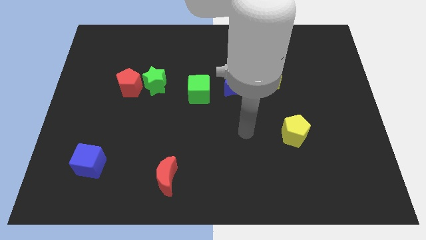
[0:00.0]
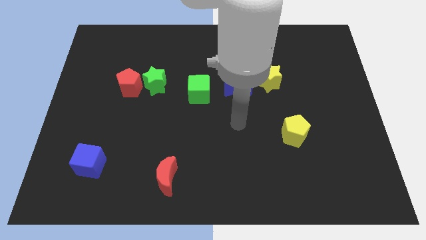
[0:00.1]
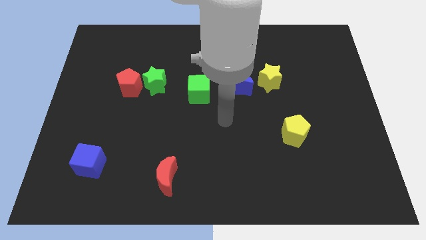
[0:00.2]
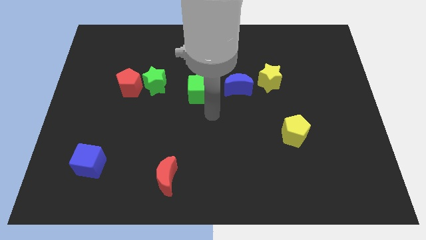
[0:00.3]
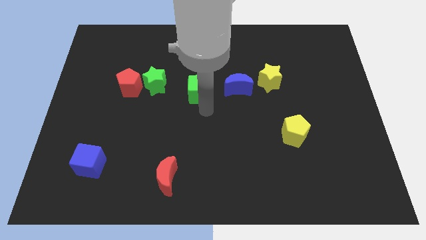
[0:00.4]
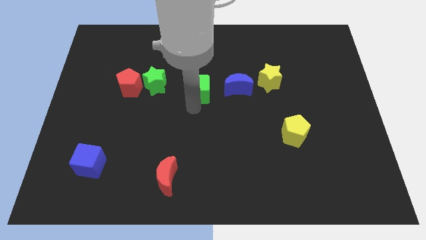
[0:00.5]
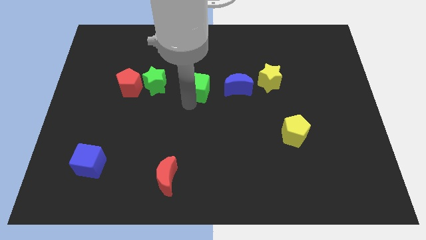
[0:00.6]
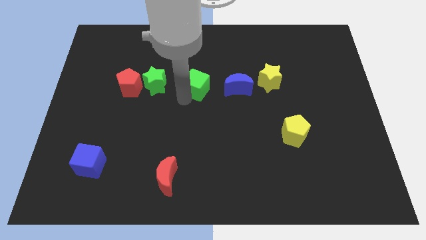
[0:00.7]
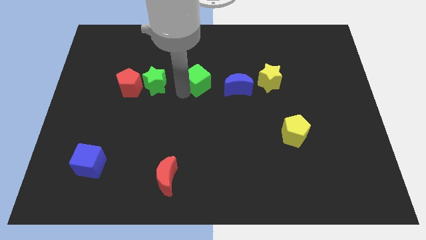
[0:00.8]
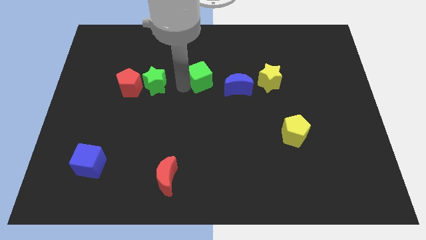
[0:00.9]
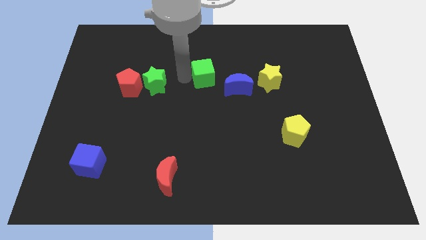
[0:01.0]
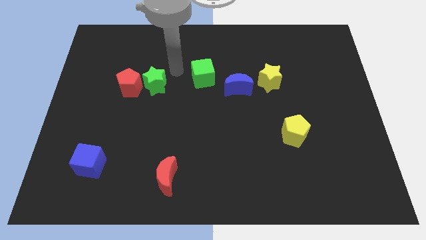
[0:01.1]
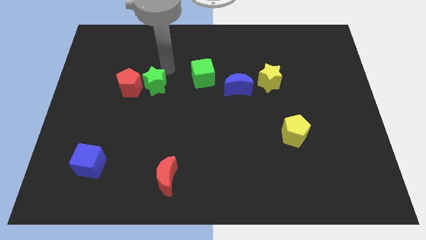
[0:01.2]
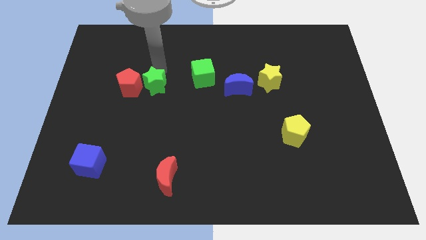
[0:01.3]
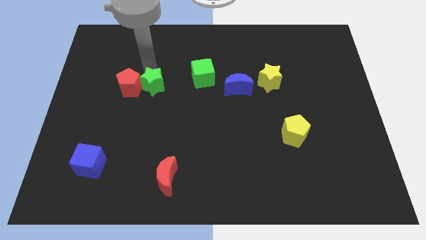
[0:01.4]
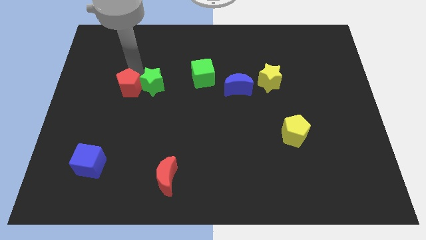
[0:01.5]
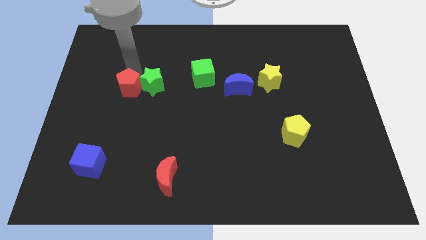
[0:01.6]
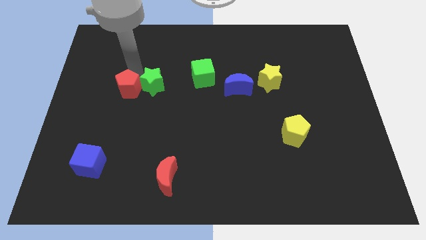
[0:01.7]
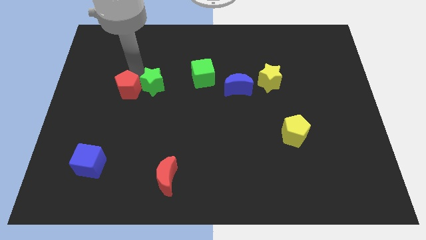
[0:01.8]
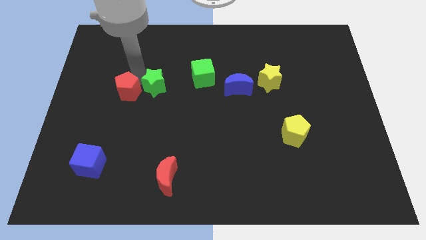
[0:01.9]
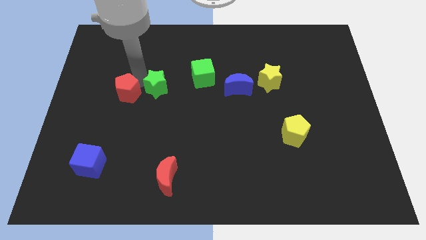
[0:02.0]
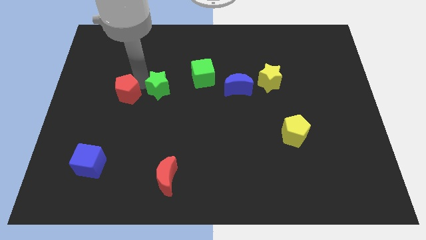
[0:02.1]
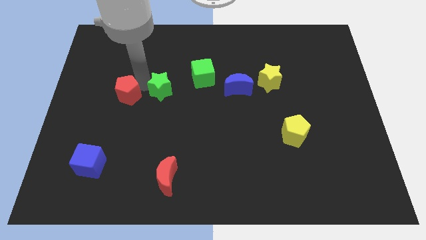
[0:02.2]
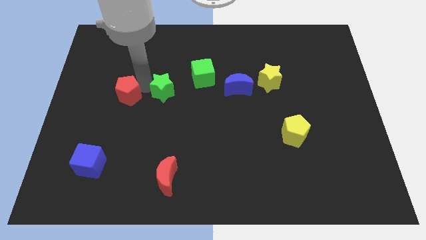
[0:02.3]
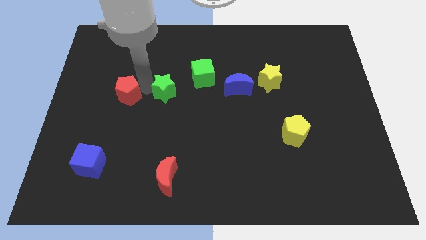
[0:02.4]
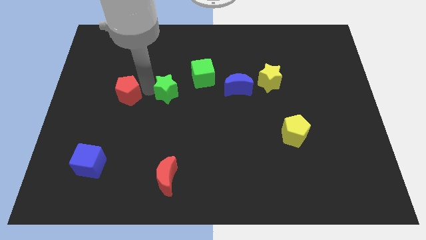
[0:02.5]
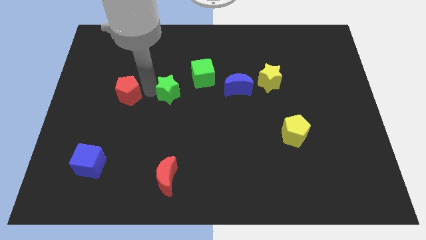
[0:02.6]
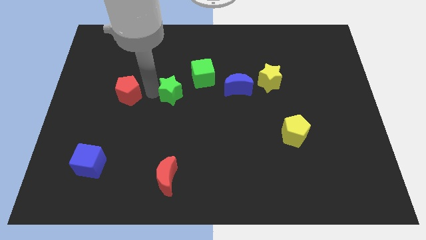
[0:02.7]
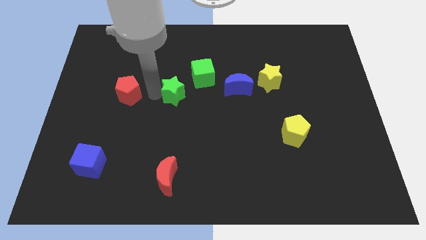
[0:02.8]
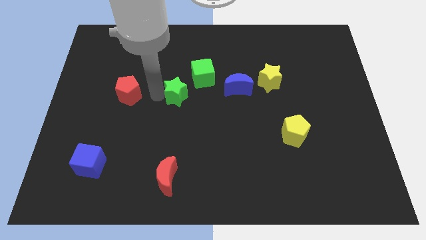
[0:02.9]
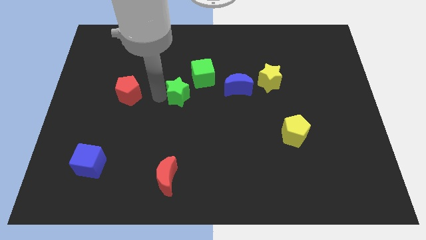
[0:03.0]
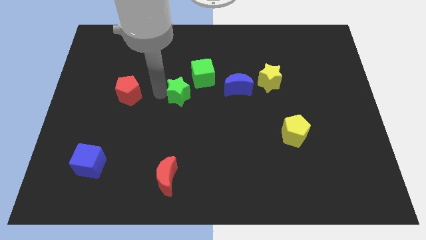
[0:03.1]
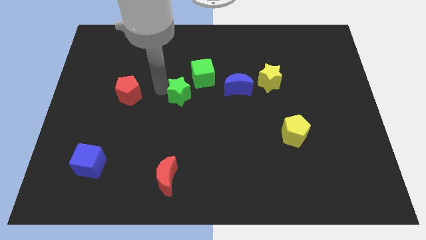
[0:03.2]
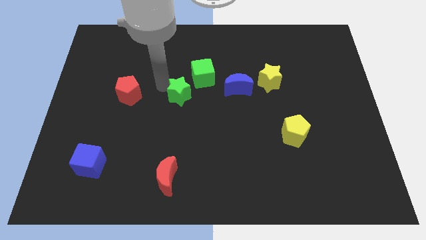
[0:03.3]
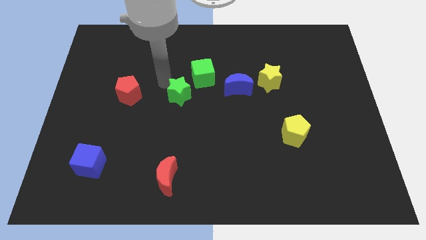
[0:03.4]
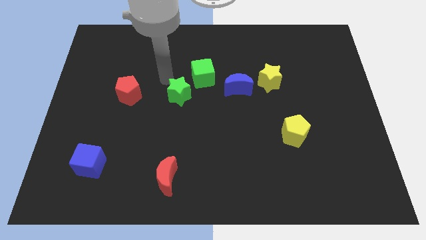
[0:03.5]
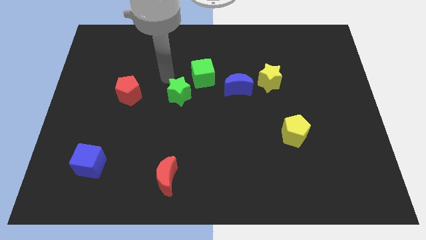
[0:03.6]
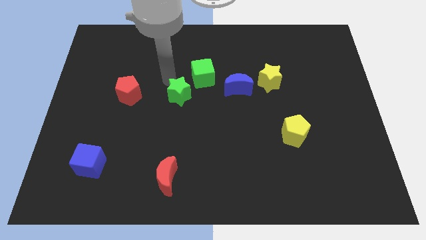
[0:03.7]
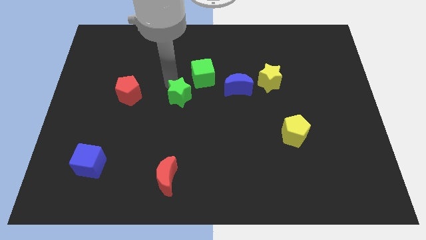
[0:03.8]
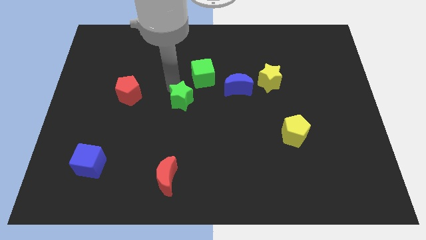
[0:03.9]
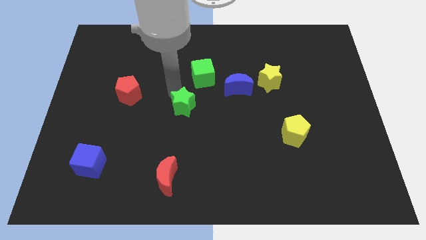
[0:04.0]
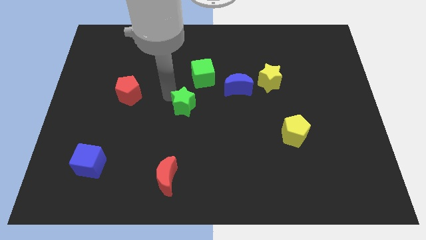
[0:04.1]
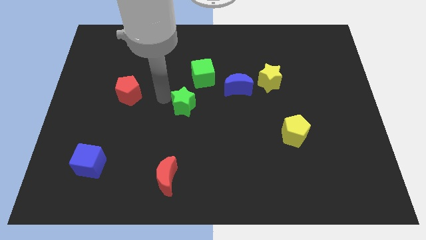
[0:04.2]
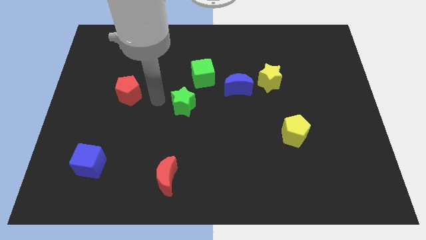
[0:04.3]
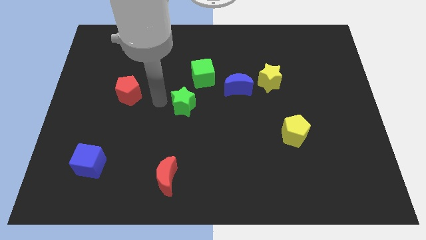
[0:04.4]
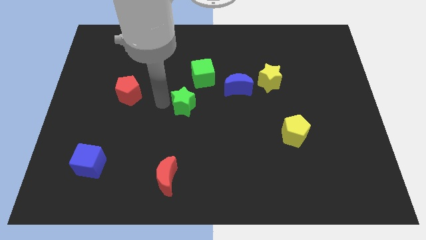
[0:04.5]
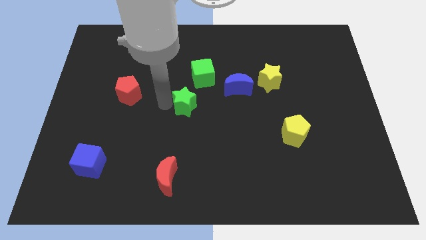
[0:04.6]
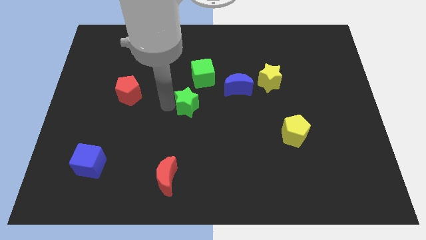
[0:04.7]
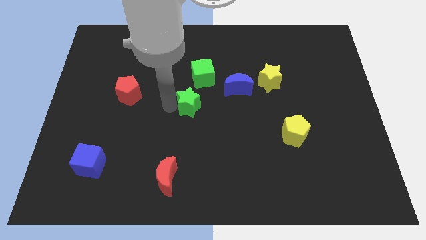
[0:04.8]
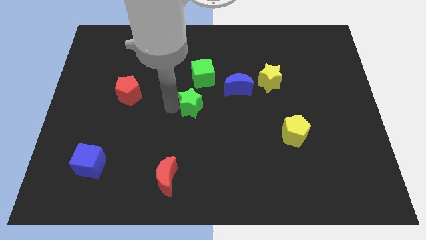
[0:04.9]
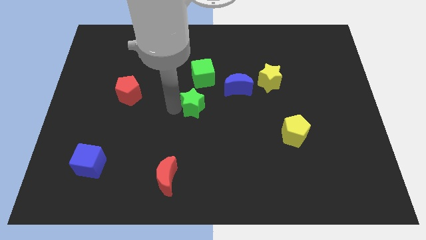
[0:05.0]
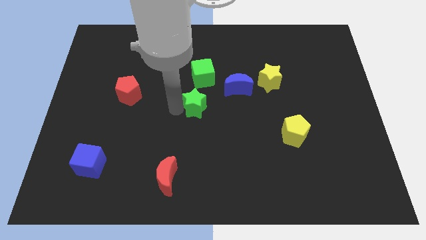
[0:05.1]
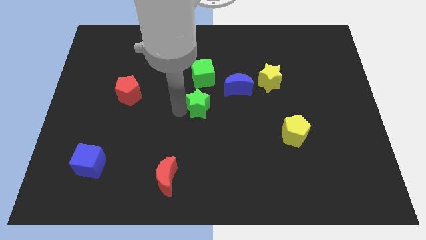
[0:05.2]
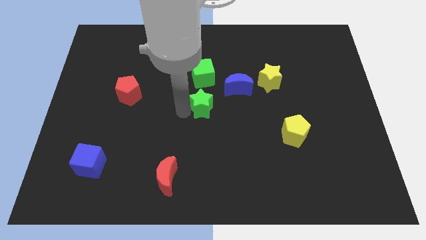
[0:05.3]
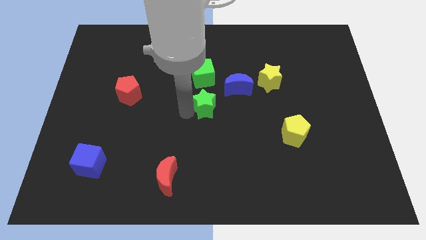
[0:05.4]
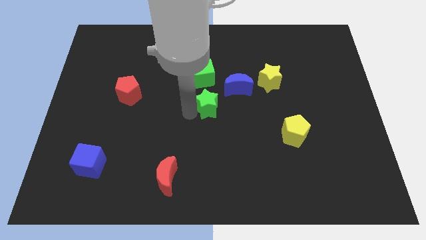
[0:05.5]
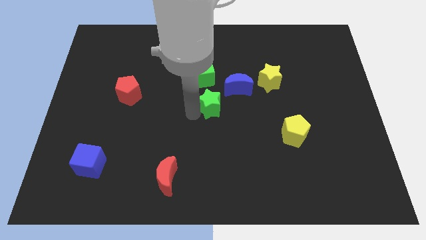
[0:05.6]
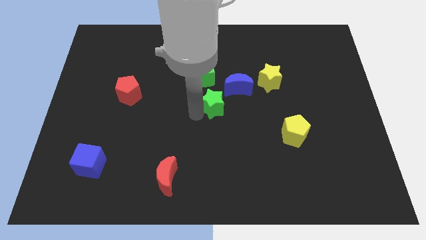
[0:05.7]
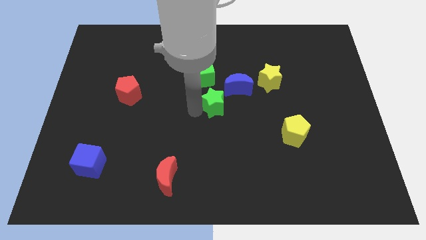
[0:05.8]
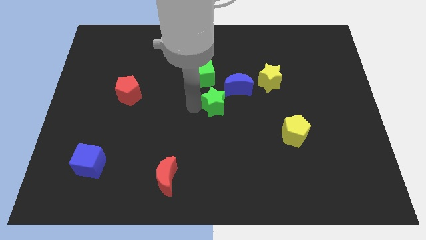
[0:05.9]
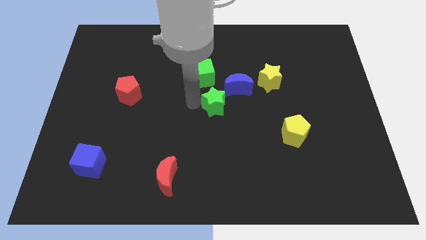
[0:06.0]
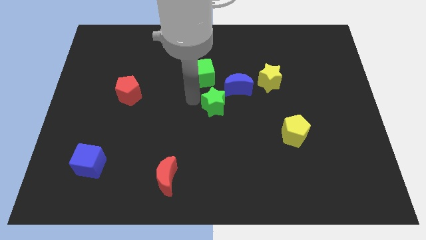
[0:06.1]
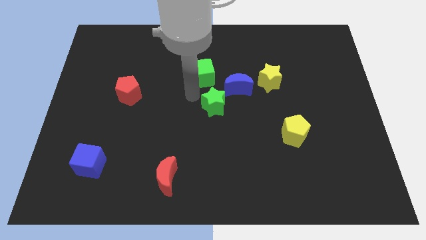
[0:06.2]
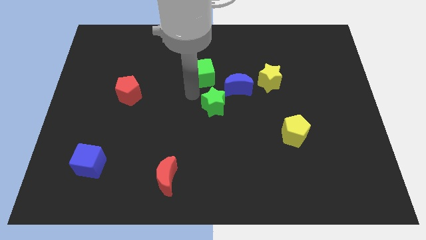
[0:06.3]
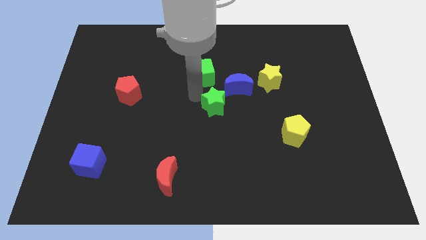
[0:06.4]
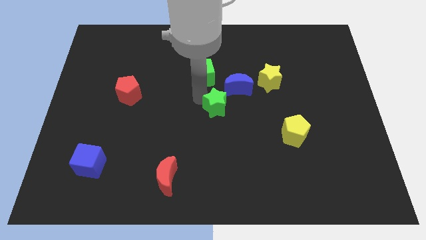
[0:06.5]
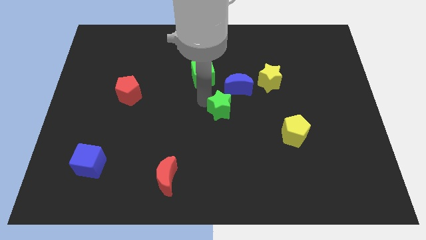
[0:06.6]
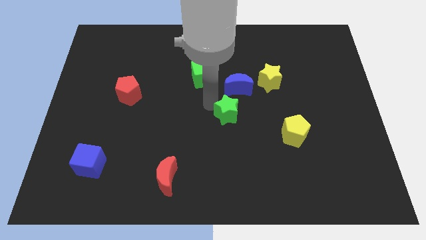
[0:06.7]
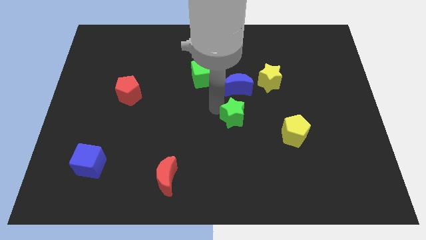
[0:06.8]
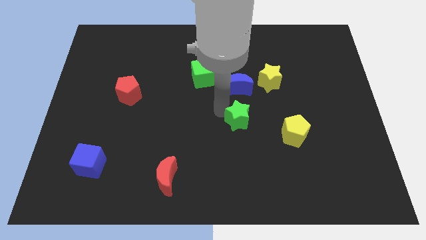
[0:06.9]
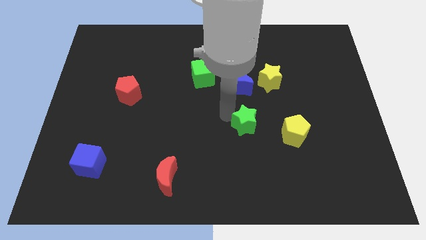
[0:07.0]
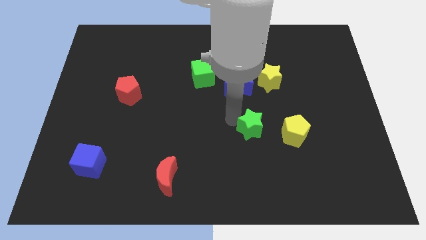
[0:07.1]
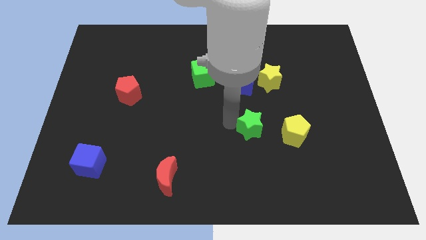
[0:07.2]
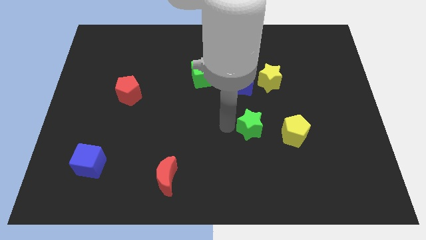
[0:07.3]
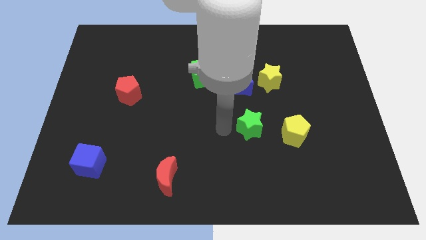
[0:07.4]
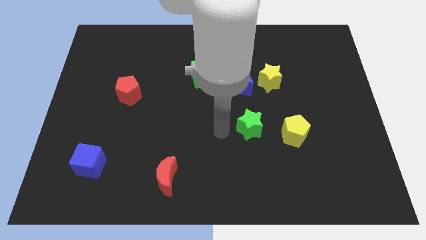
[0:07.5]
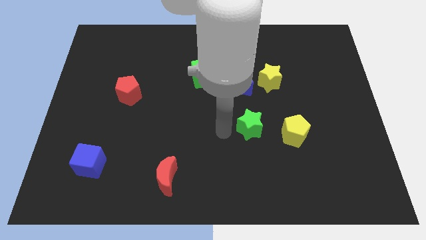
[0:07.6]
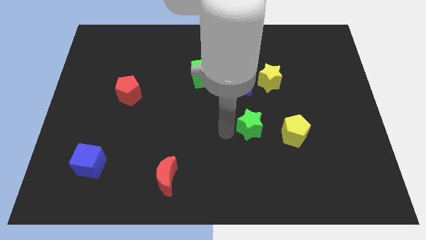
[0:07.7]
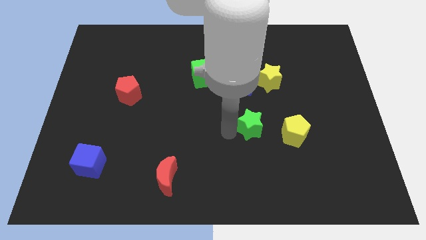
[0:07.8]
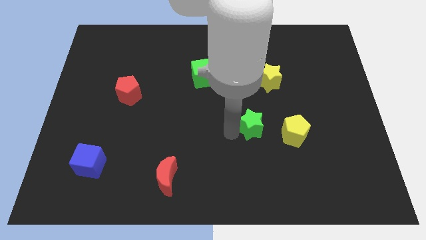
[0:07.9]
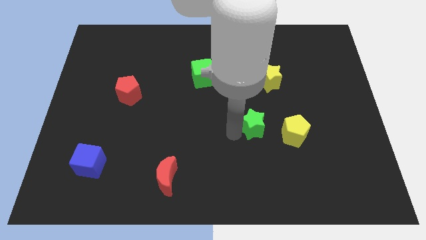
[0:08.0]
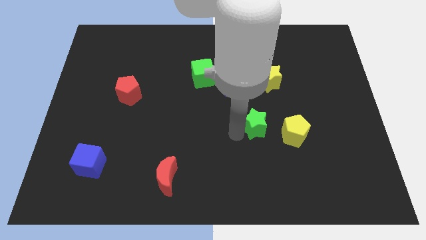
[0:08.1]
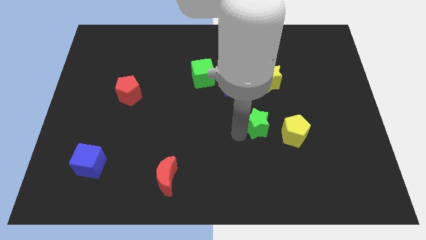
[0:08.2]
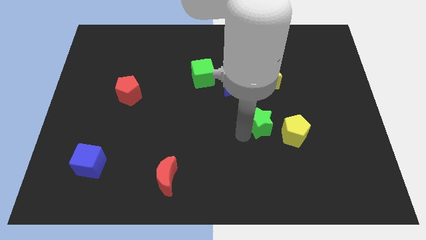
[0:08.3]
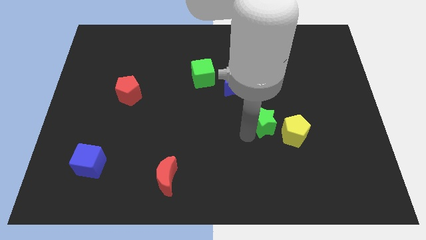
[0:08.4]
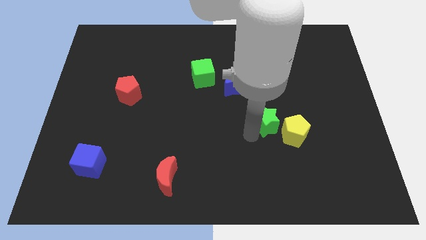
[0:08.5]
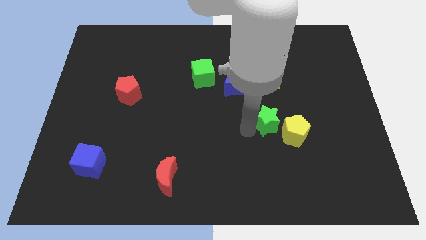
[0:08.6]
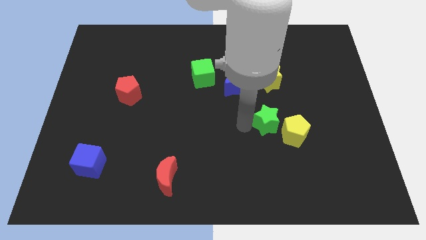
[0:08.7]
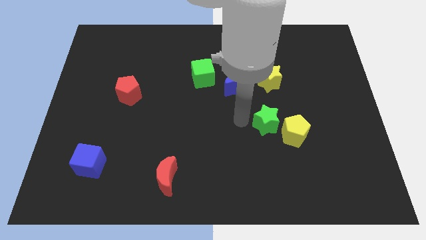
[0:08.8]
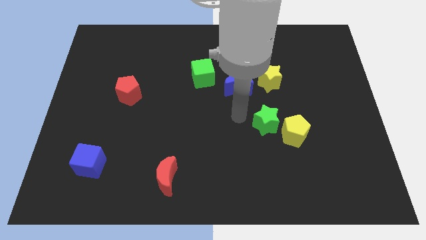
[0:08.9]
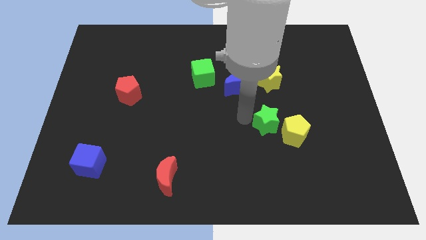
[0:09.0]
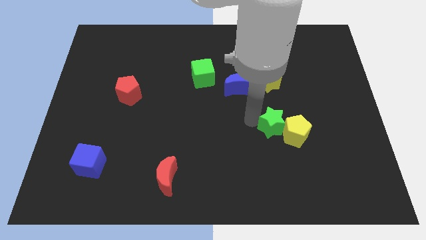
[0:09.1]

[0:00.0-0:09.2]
push the green star towards the yellow pentagon
